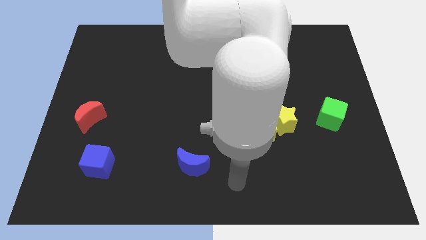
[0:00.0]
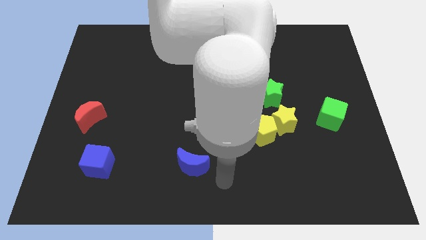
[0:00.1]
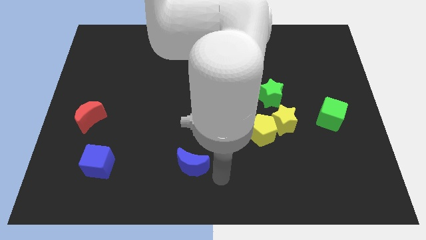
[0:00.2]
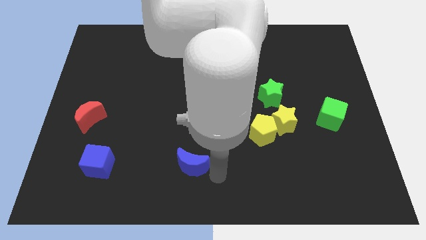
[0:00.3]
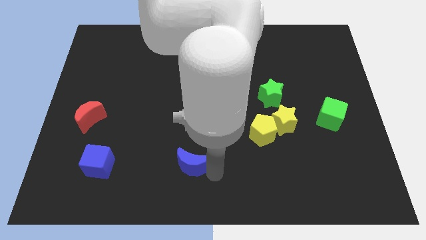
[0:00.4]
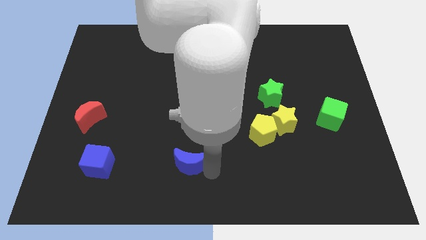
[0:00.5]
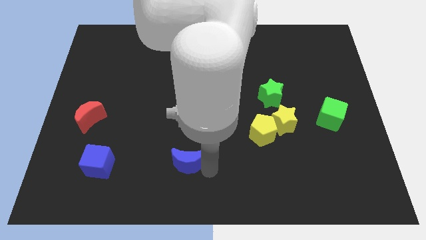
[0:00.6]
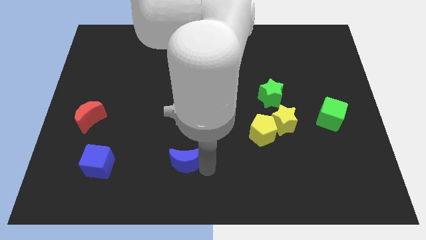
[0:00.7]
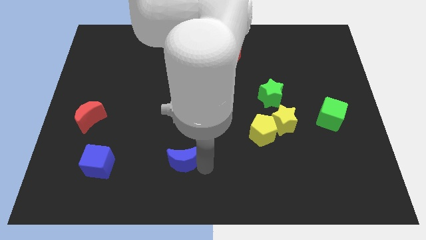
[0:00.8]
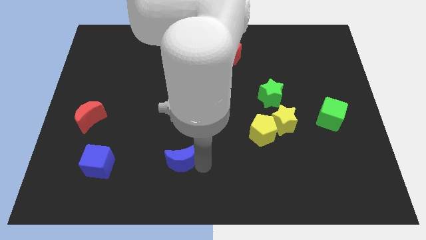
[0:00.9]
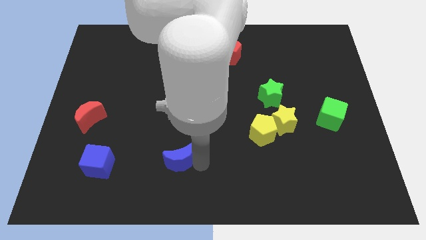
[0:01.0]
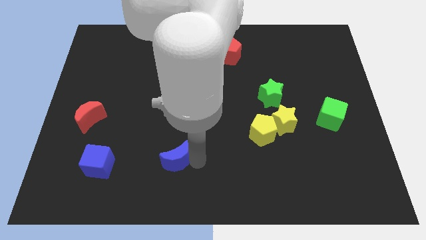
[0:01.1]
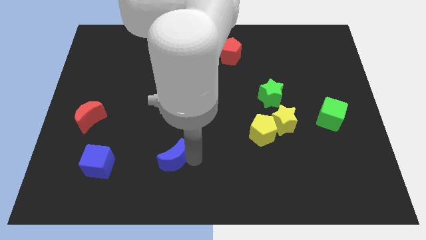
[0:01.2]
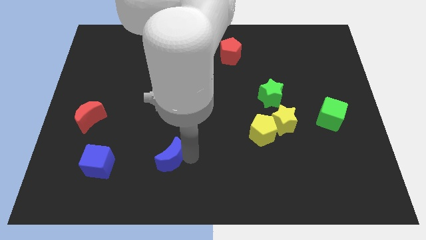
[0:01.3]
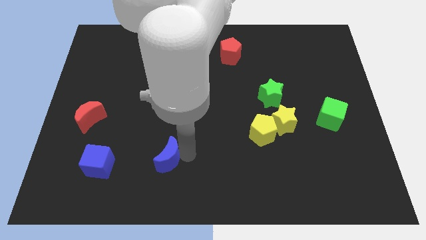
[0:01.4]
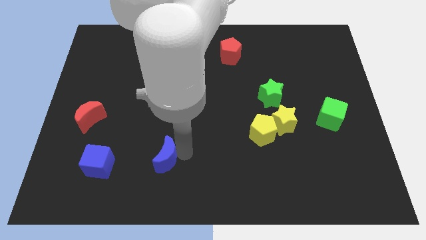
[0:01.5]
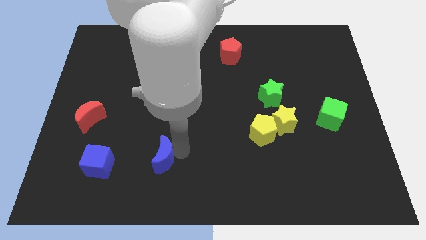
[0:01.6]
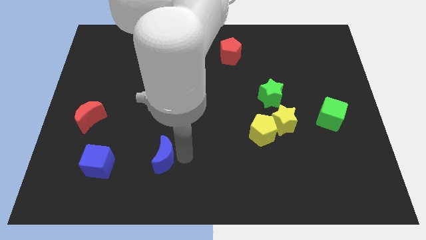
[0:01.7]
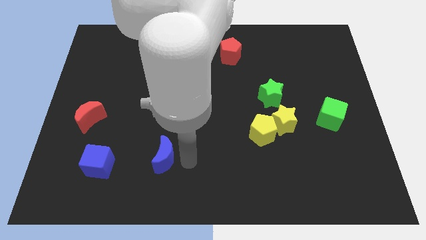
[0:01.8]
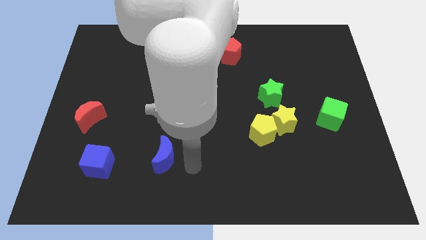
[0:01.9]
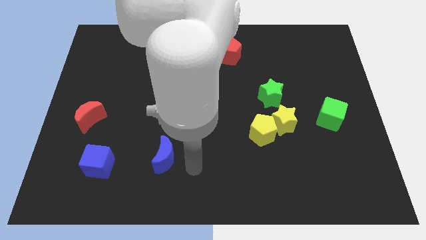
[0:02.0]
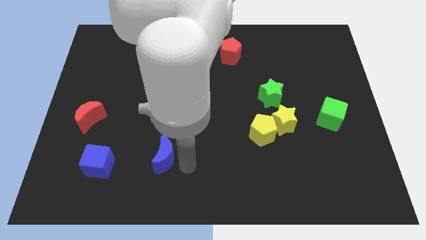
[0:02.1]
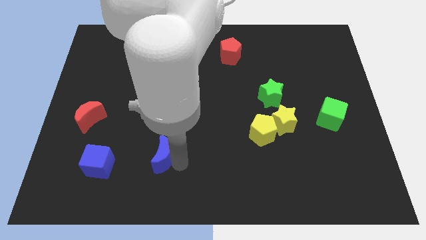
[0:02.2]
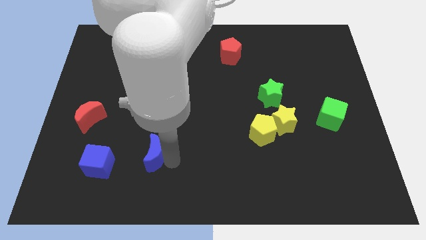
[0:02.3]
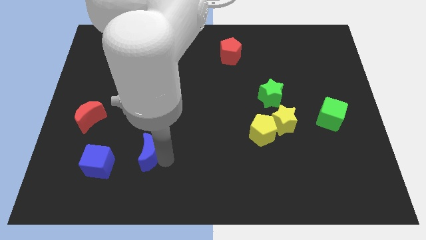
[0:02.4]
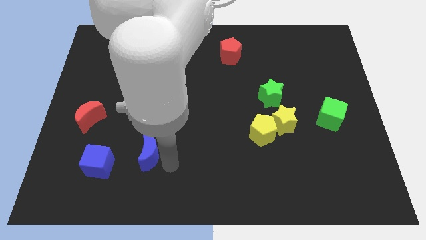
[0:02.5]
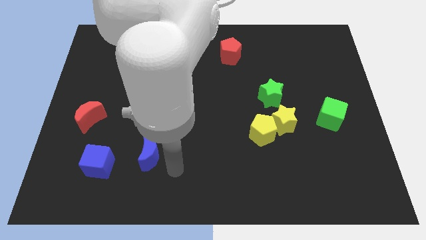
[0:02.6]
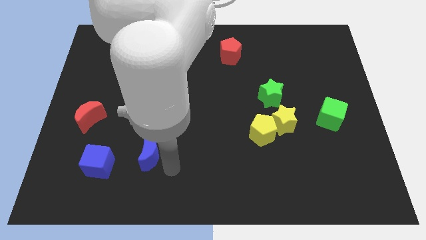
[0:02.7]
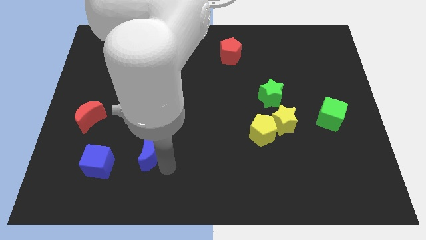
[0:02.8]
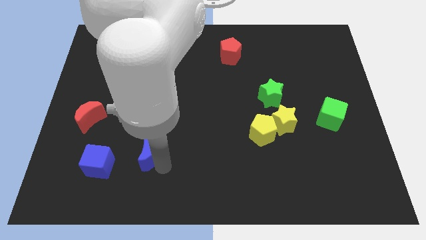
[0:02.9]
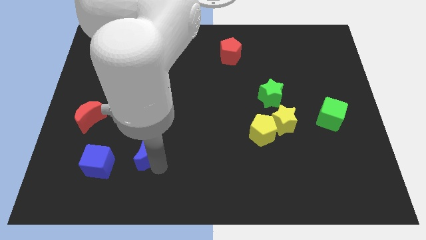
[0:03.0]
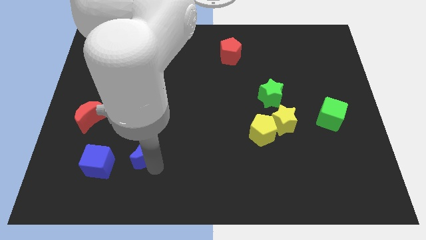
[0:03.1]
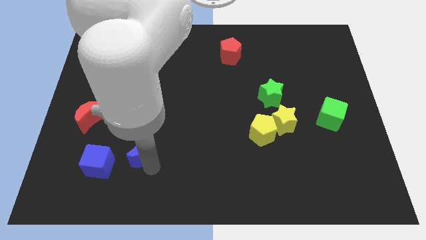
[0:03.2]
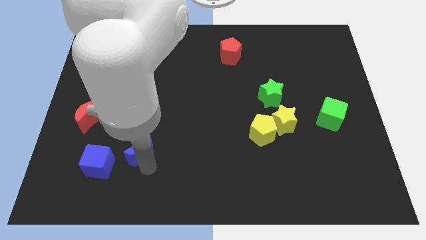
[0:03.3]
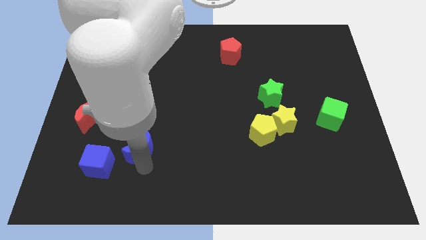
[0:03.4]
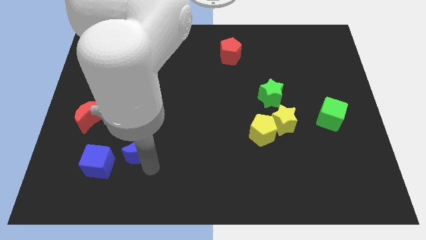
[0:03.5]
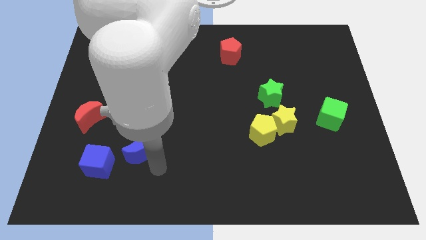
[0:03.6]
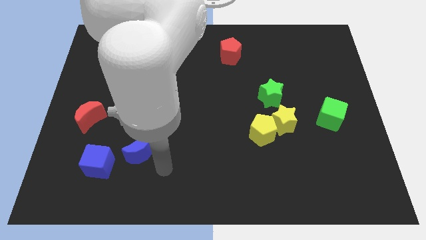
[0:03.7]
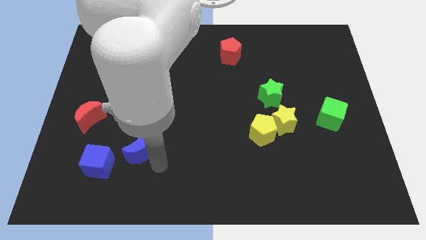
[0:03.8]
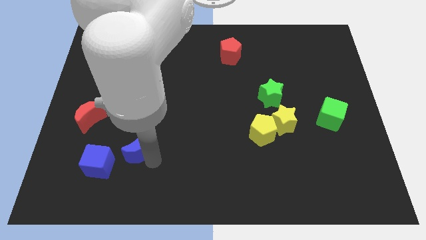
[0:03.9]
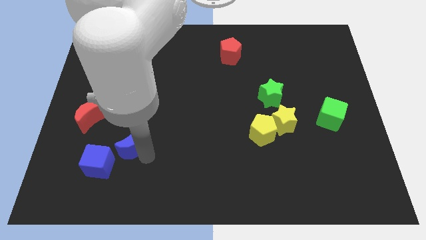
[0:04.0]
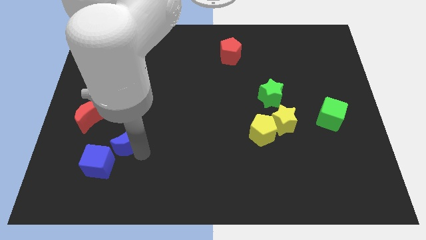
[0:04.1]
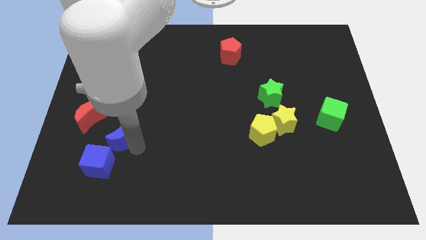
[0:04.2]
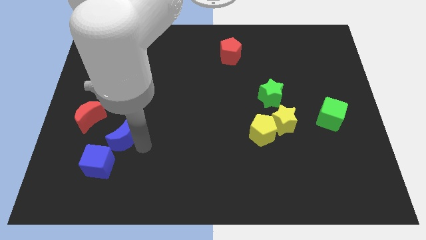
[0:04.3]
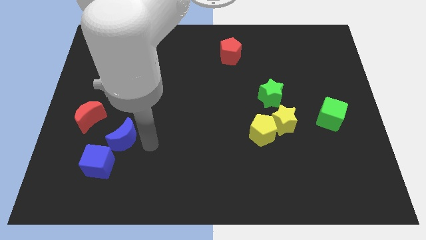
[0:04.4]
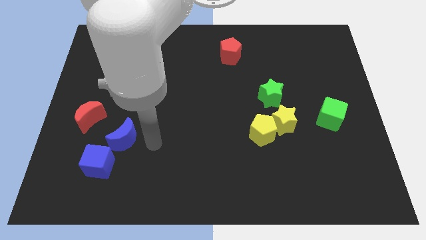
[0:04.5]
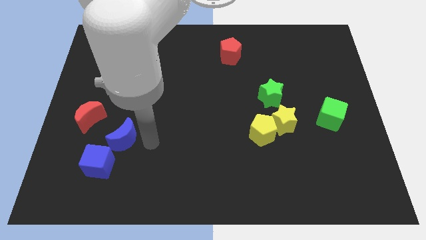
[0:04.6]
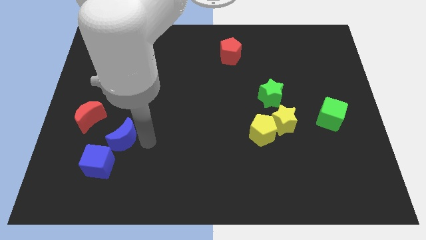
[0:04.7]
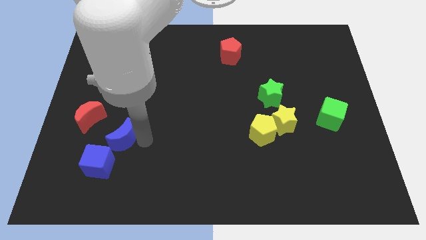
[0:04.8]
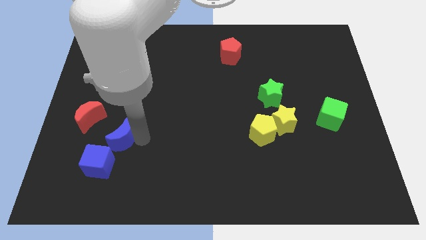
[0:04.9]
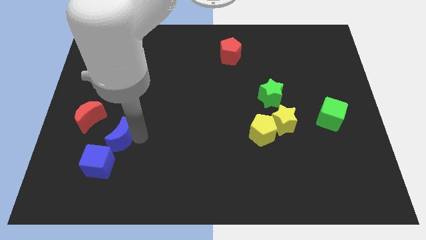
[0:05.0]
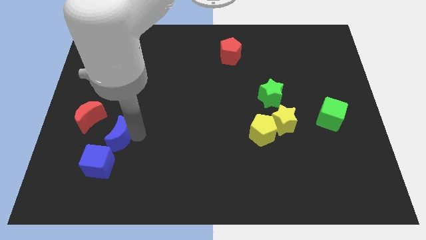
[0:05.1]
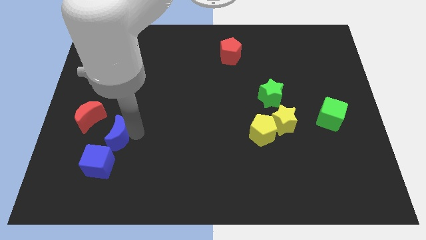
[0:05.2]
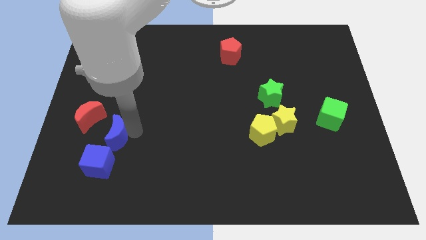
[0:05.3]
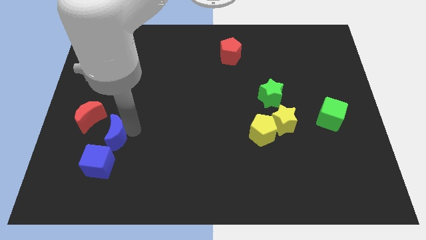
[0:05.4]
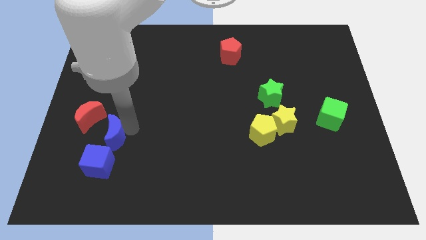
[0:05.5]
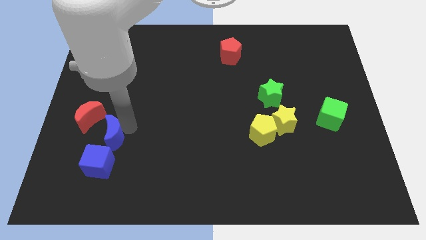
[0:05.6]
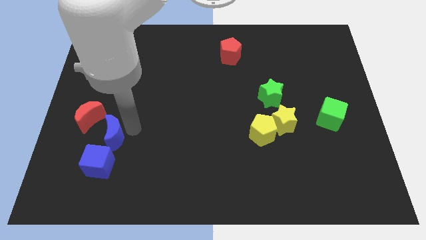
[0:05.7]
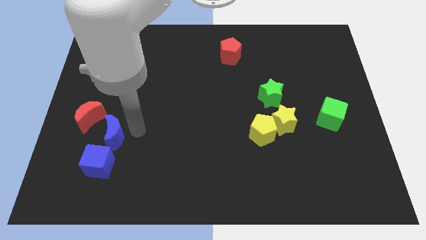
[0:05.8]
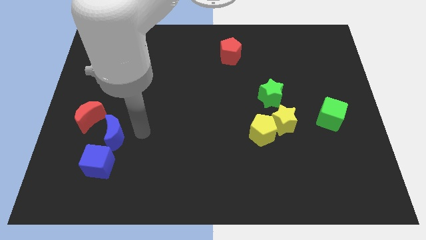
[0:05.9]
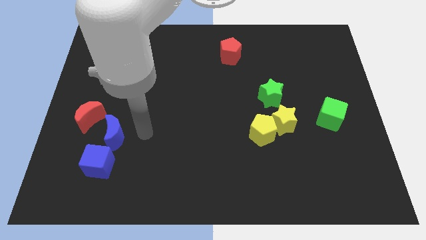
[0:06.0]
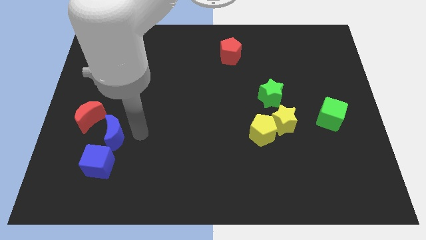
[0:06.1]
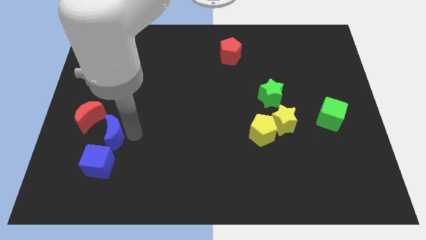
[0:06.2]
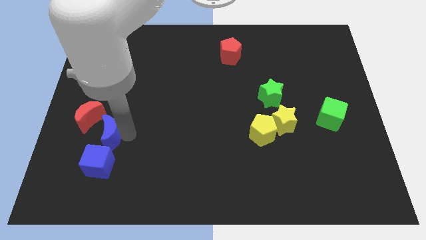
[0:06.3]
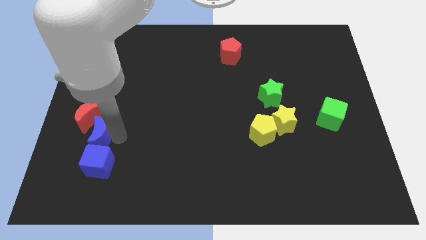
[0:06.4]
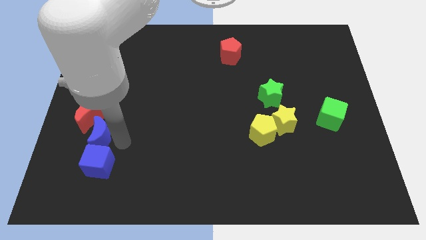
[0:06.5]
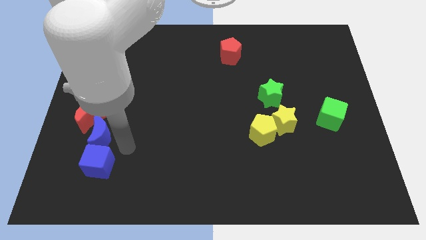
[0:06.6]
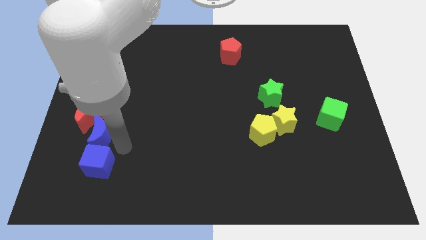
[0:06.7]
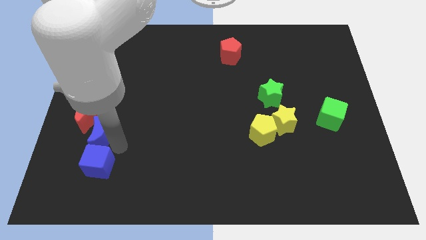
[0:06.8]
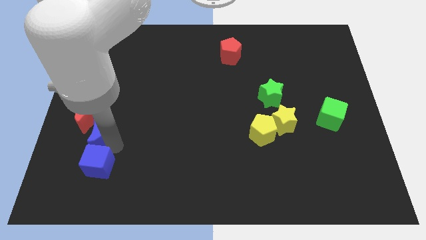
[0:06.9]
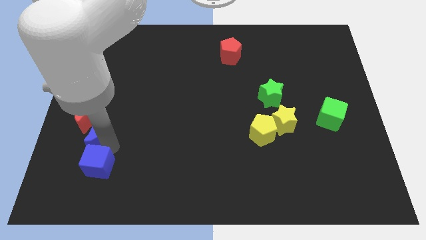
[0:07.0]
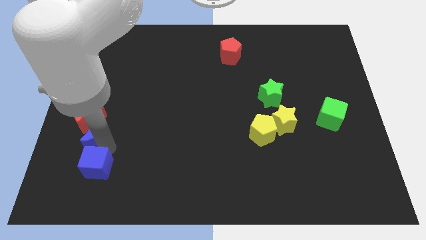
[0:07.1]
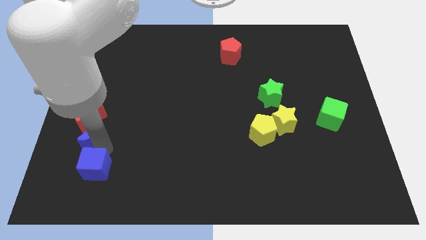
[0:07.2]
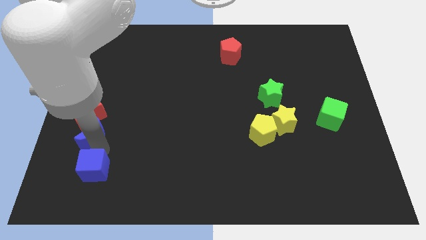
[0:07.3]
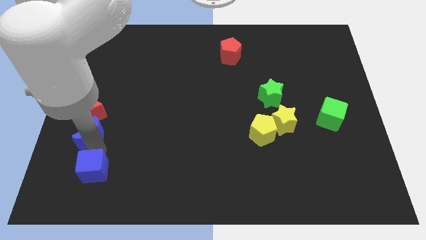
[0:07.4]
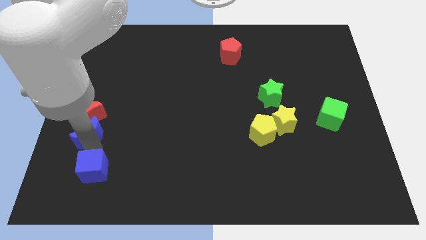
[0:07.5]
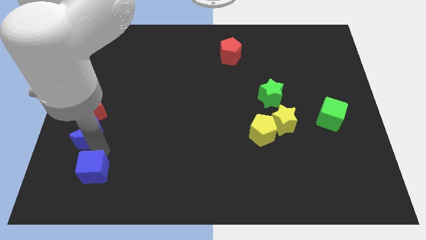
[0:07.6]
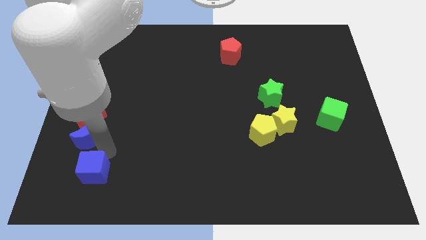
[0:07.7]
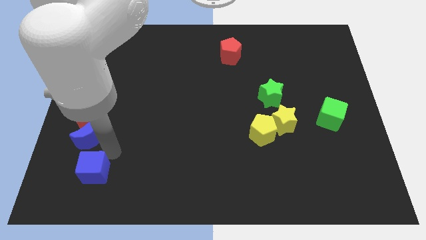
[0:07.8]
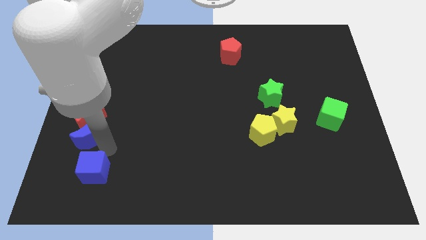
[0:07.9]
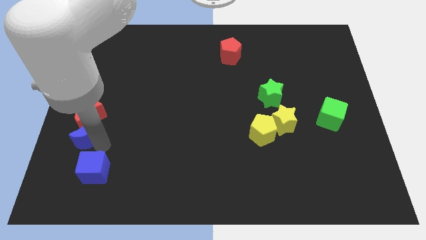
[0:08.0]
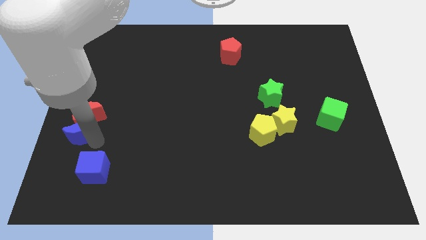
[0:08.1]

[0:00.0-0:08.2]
put the blue moon to the left side
